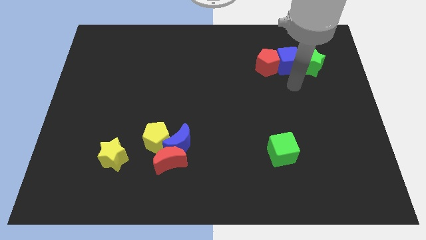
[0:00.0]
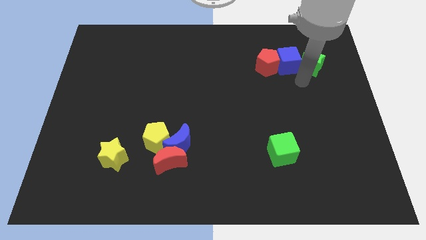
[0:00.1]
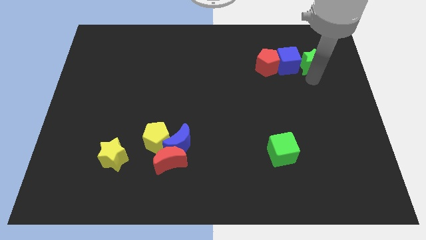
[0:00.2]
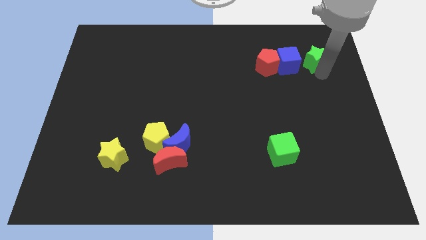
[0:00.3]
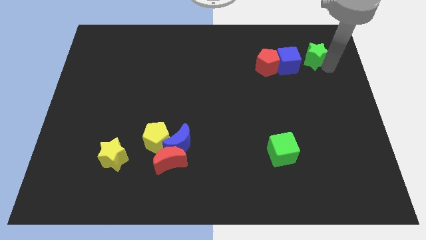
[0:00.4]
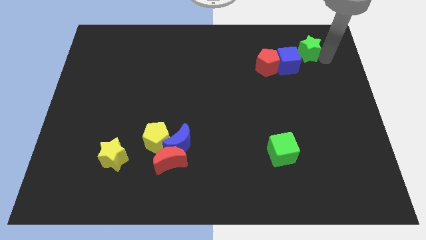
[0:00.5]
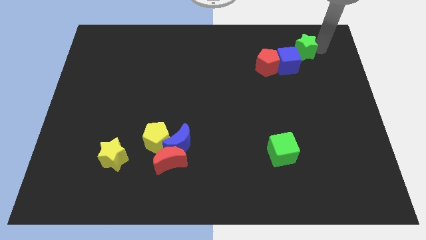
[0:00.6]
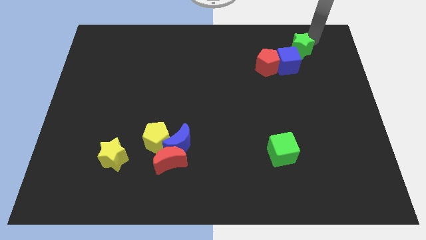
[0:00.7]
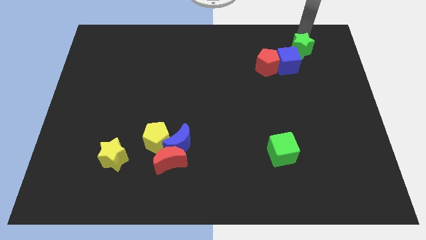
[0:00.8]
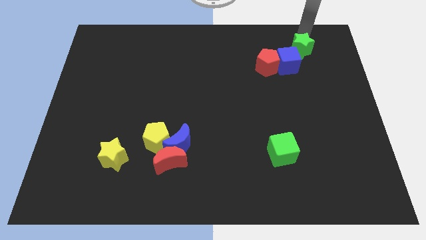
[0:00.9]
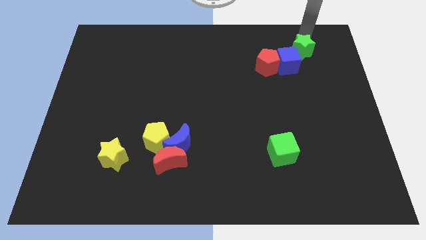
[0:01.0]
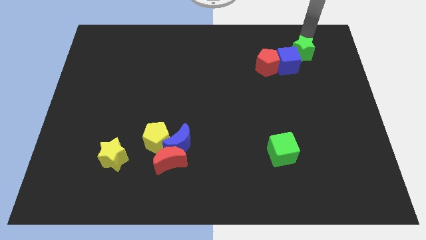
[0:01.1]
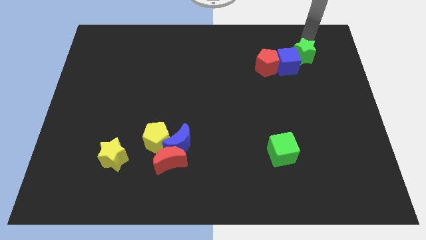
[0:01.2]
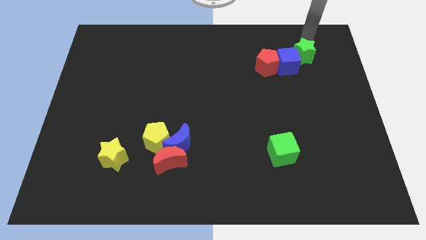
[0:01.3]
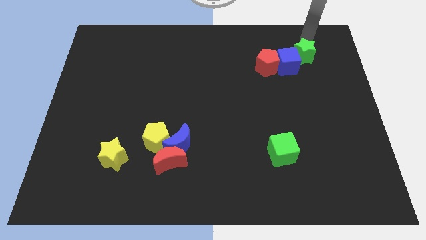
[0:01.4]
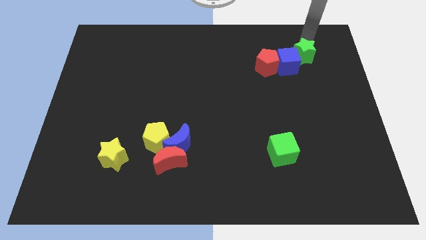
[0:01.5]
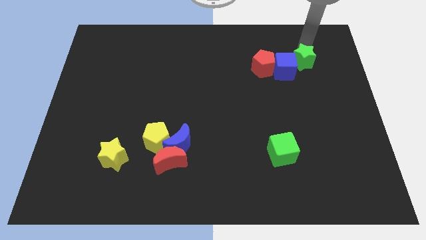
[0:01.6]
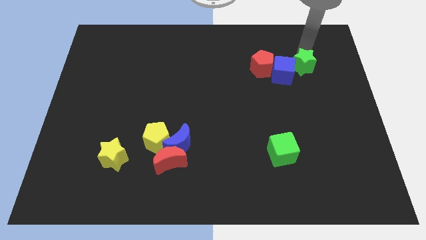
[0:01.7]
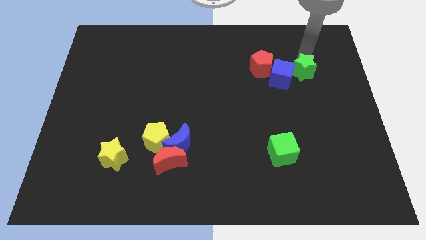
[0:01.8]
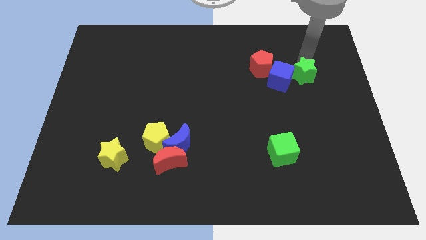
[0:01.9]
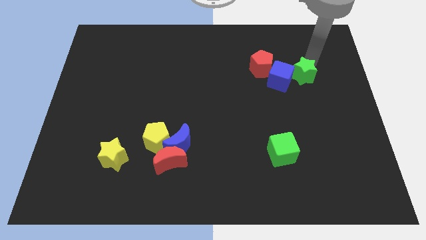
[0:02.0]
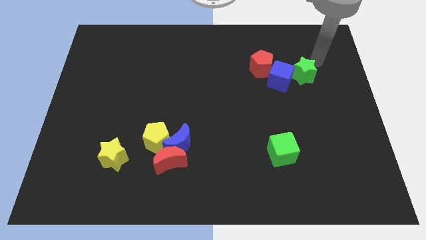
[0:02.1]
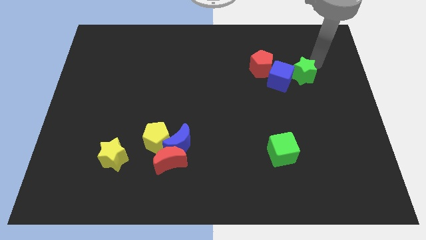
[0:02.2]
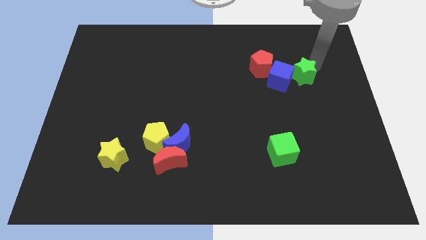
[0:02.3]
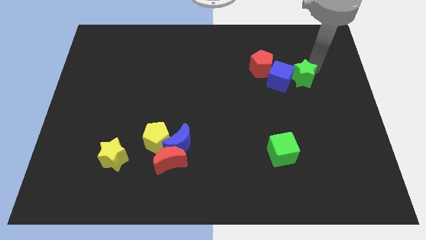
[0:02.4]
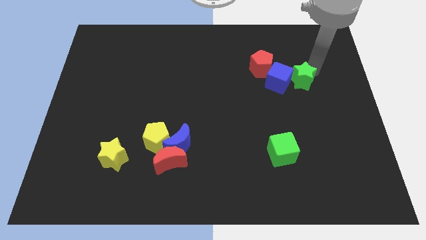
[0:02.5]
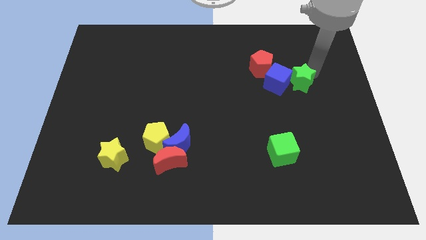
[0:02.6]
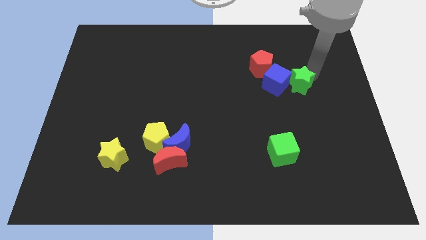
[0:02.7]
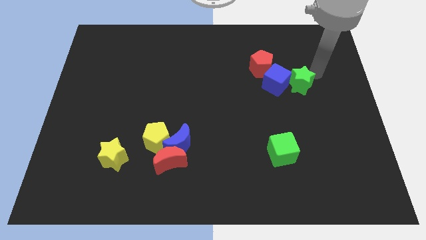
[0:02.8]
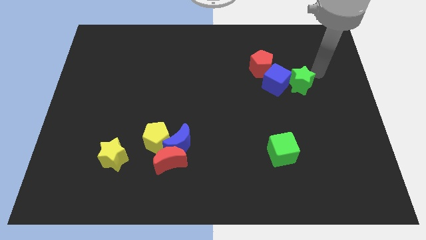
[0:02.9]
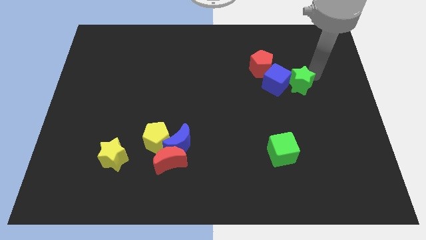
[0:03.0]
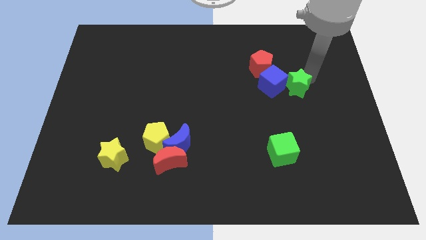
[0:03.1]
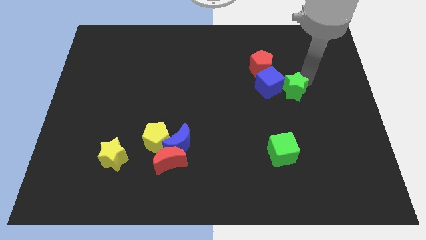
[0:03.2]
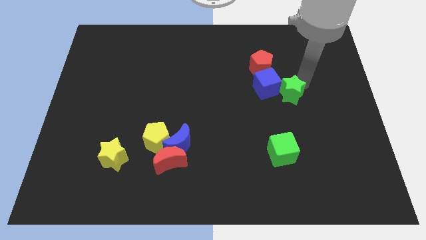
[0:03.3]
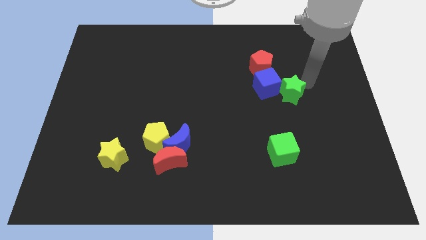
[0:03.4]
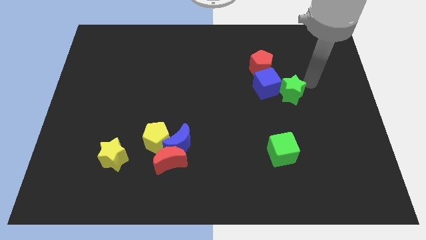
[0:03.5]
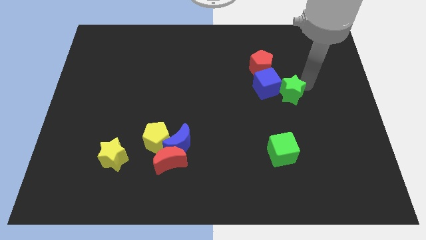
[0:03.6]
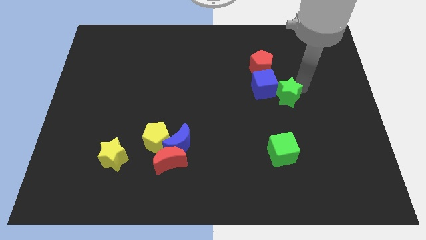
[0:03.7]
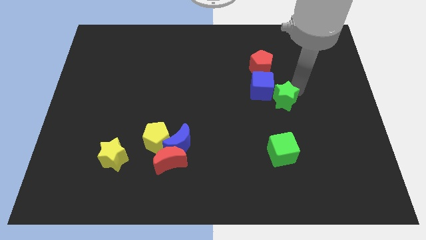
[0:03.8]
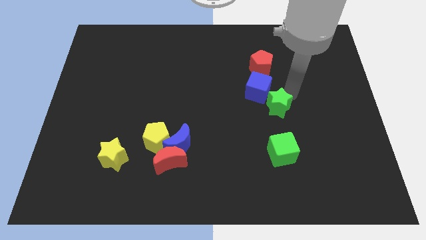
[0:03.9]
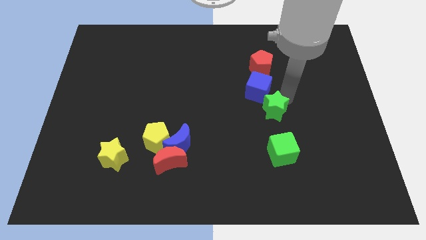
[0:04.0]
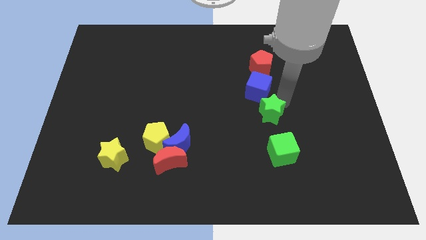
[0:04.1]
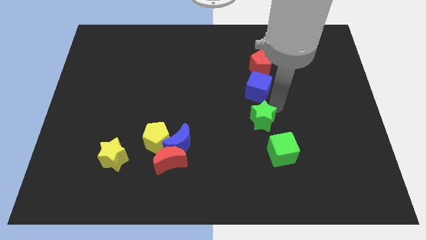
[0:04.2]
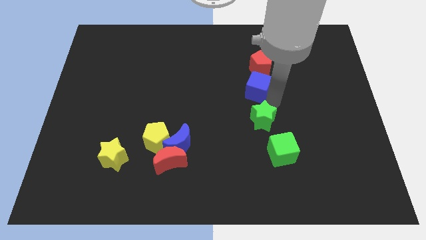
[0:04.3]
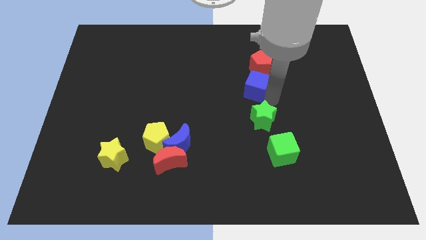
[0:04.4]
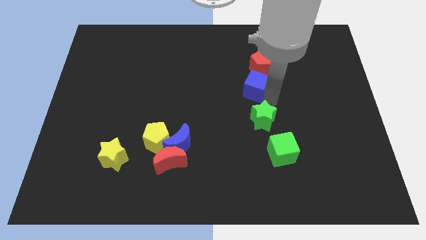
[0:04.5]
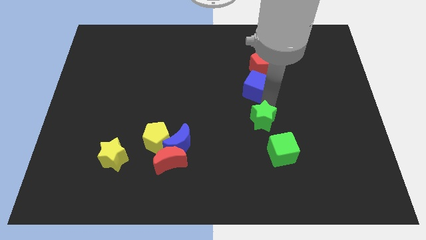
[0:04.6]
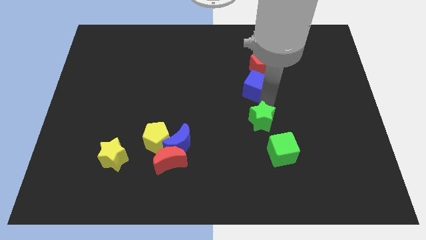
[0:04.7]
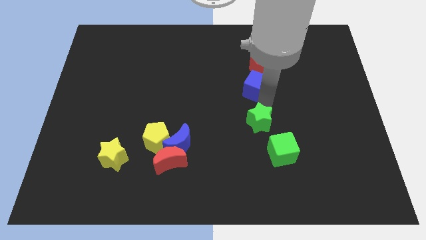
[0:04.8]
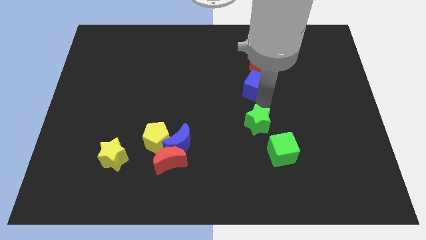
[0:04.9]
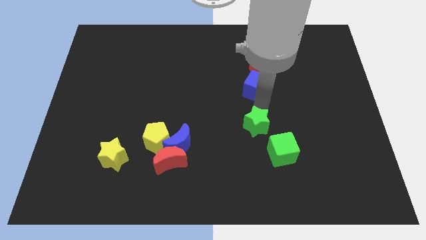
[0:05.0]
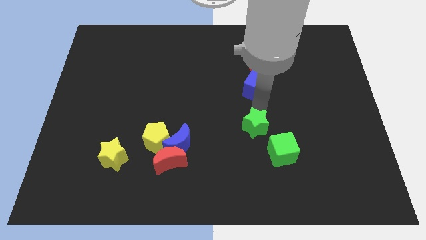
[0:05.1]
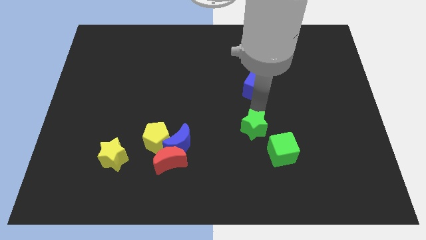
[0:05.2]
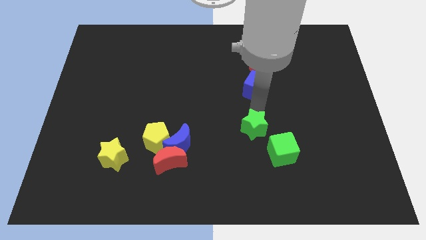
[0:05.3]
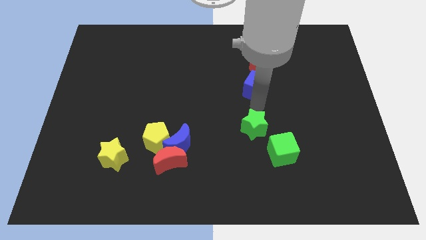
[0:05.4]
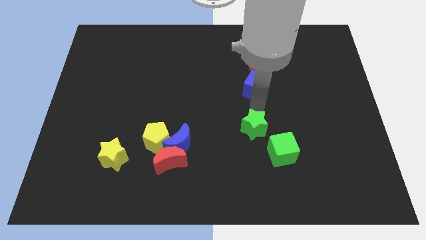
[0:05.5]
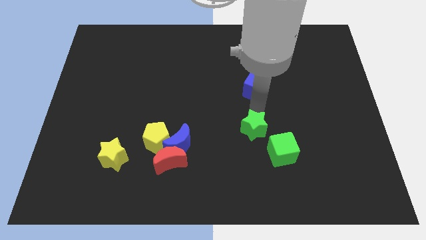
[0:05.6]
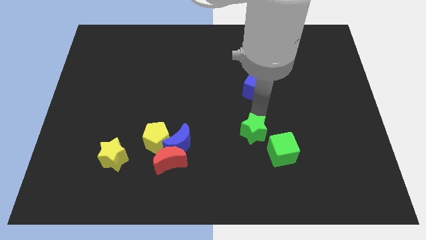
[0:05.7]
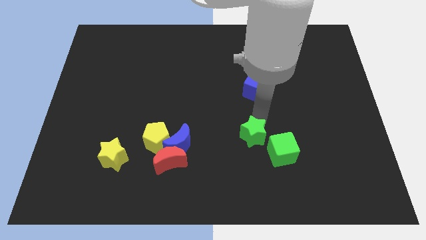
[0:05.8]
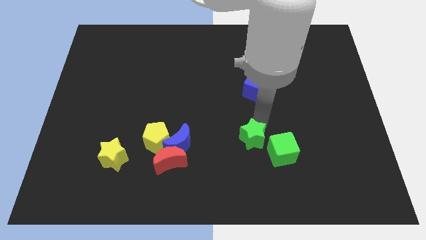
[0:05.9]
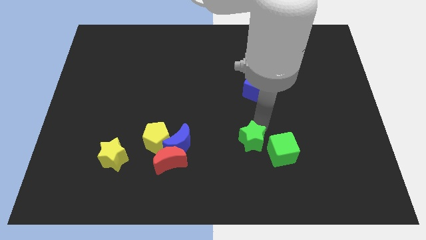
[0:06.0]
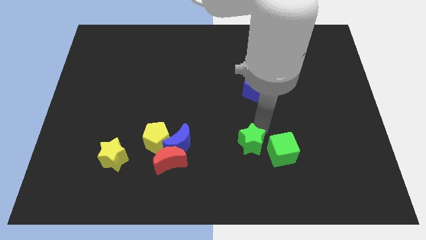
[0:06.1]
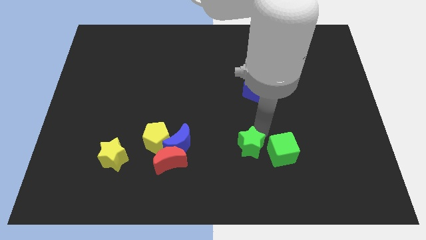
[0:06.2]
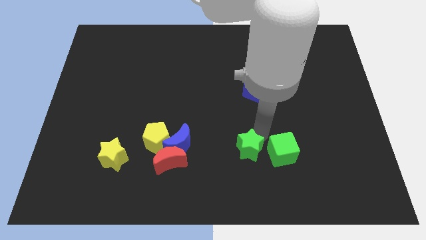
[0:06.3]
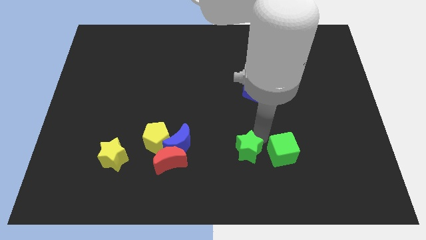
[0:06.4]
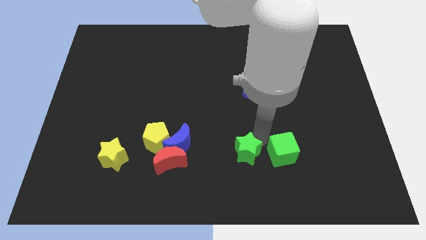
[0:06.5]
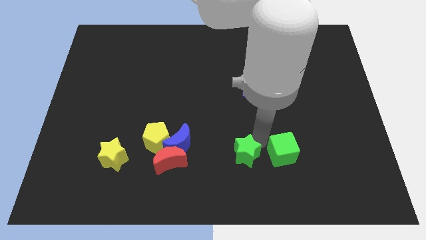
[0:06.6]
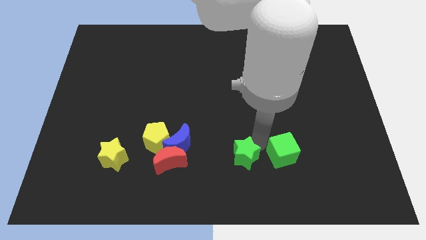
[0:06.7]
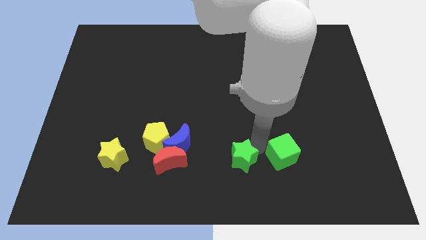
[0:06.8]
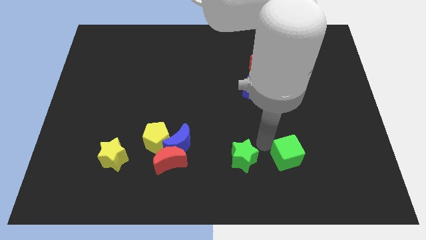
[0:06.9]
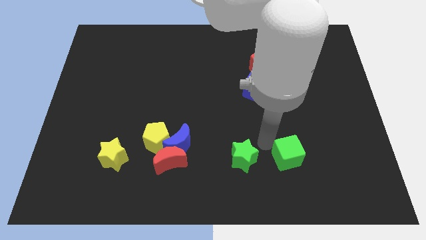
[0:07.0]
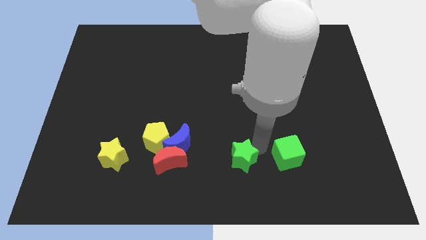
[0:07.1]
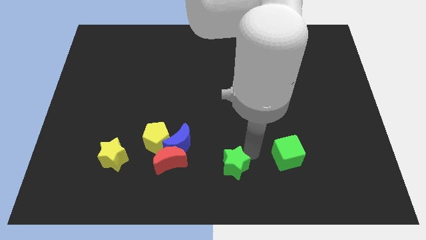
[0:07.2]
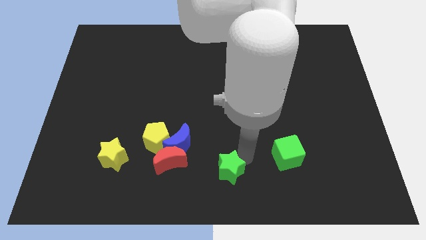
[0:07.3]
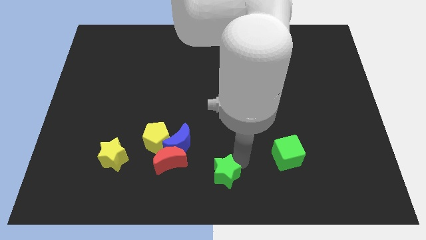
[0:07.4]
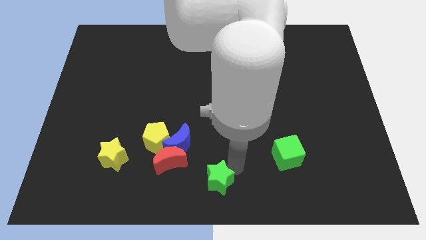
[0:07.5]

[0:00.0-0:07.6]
slide the green star diagonally down and to the right of the red moon

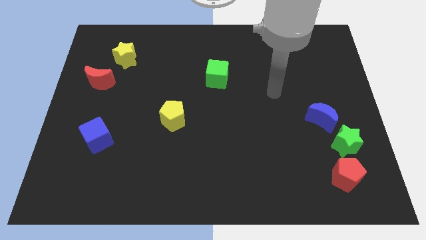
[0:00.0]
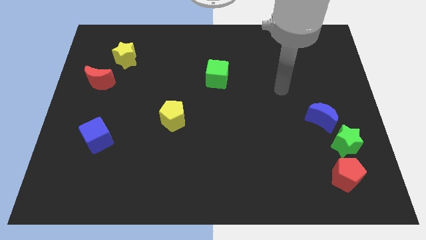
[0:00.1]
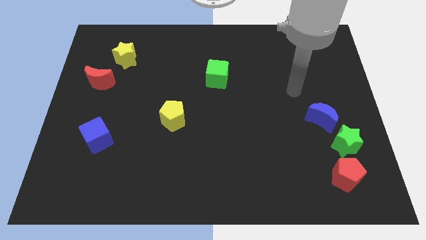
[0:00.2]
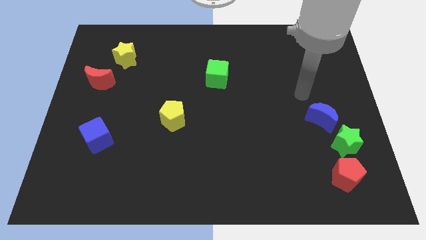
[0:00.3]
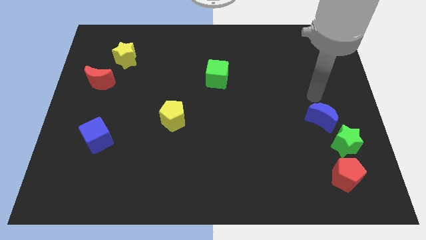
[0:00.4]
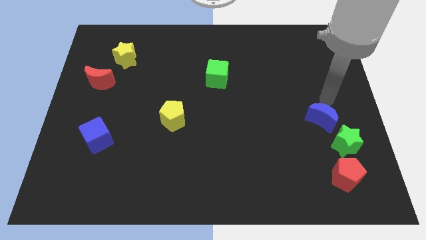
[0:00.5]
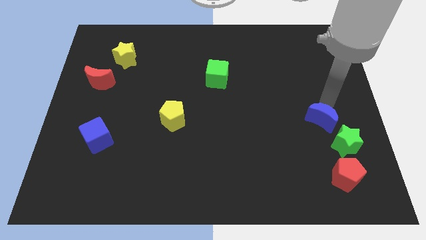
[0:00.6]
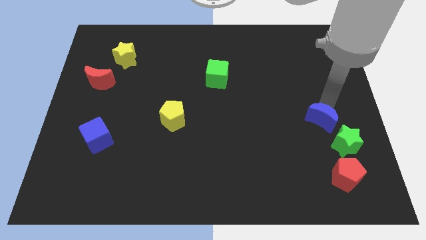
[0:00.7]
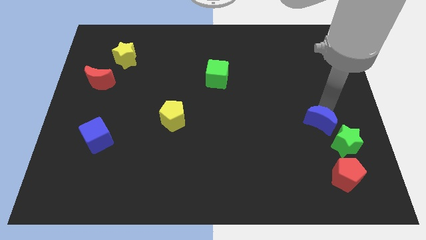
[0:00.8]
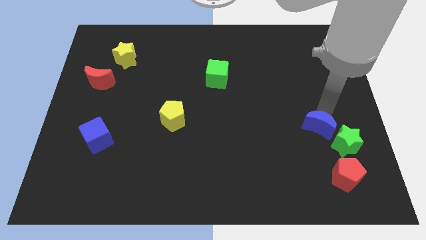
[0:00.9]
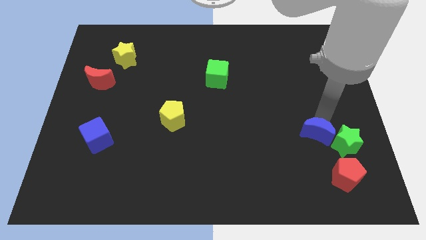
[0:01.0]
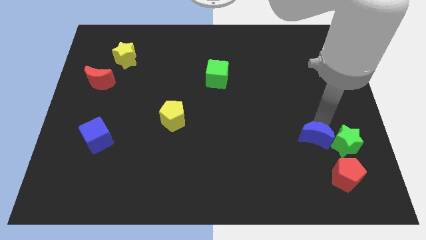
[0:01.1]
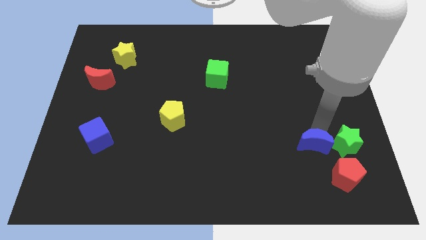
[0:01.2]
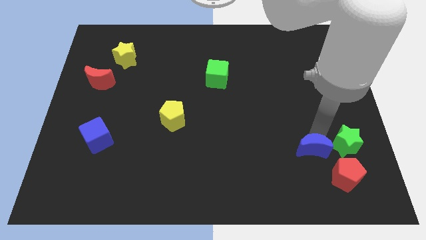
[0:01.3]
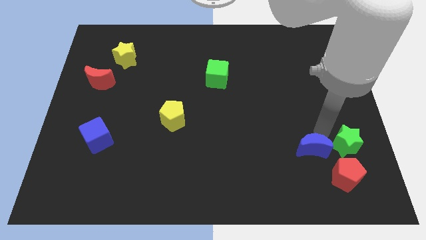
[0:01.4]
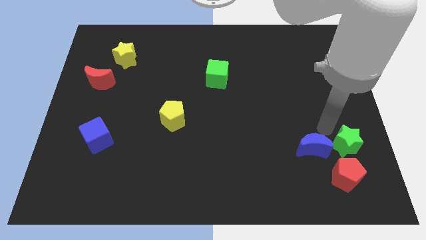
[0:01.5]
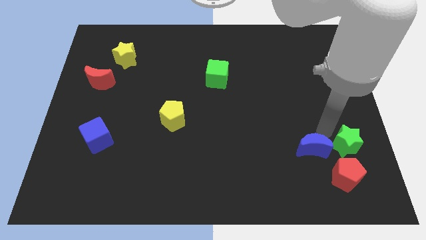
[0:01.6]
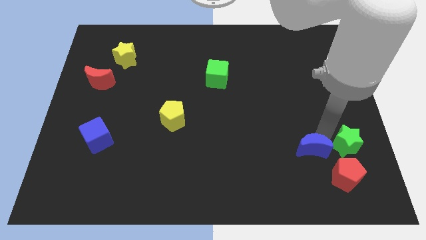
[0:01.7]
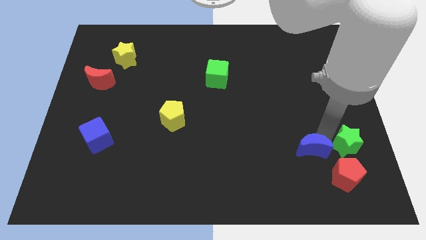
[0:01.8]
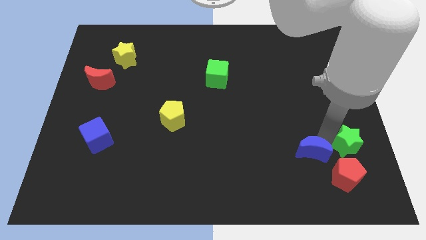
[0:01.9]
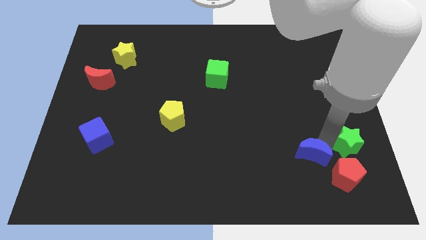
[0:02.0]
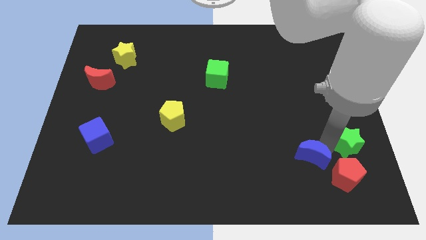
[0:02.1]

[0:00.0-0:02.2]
move the blue moon to the left of the red pentagon
